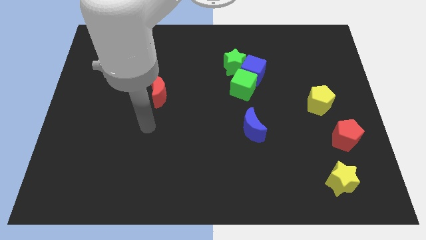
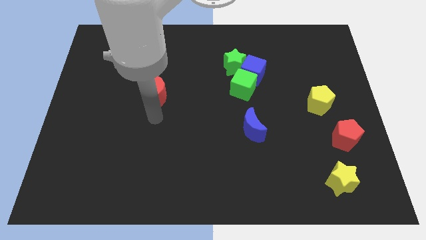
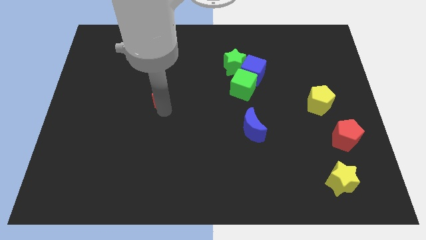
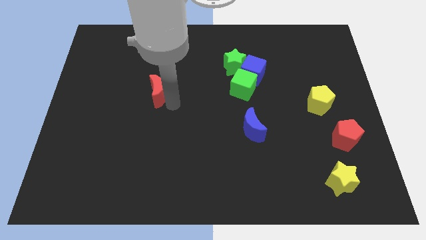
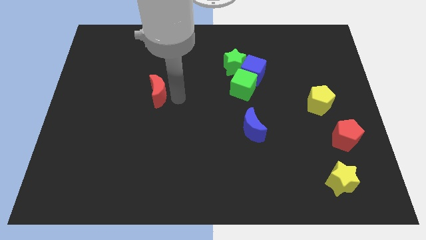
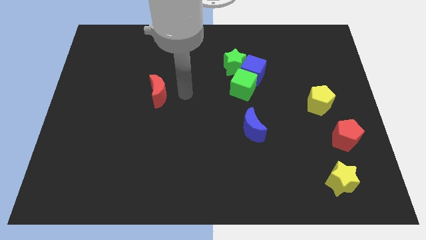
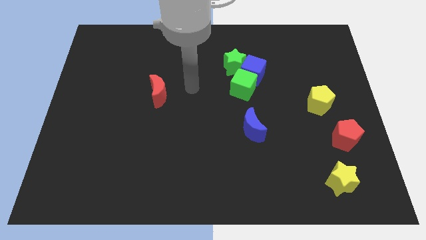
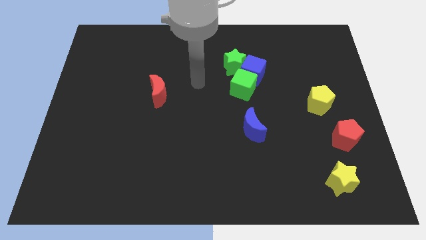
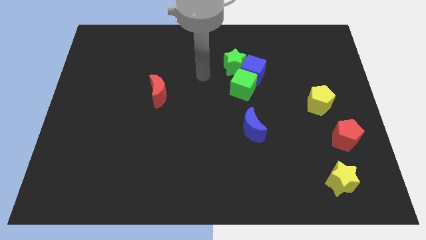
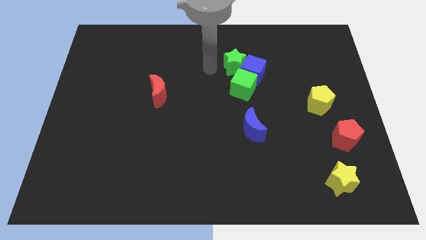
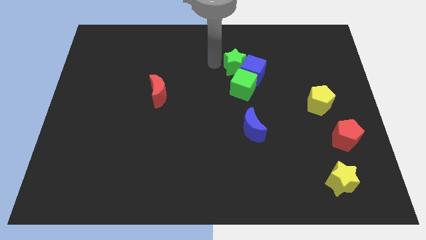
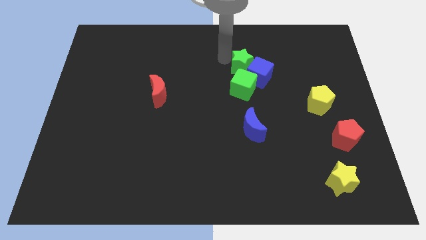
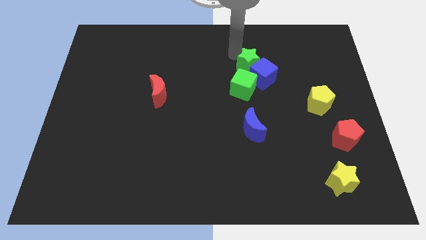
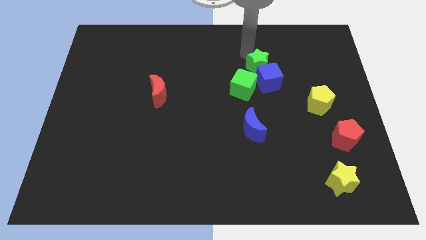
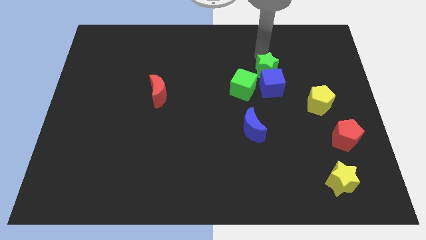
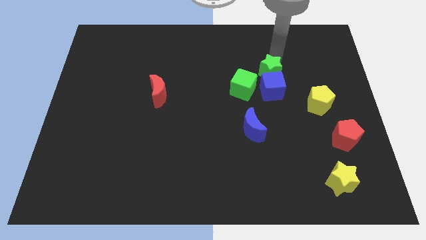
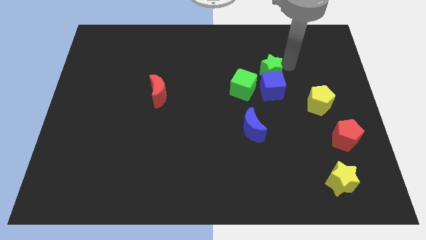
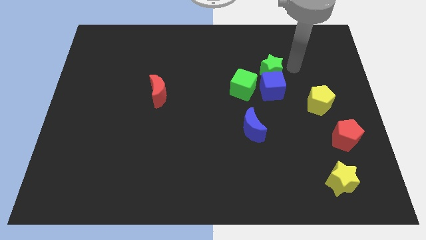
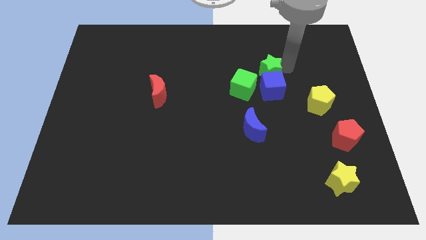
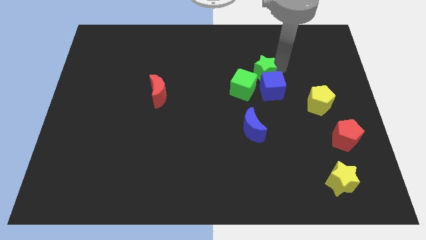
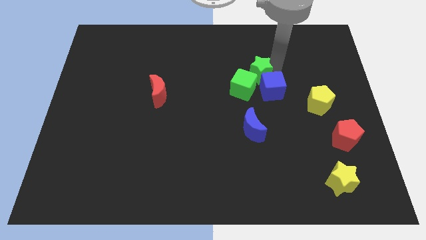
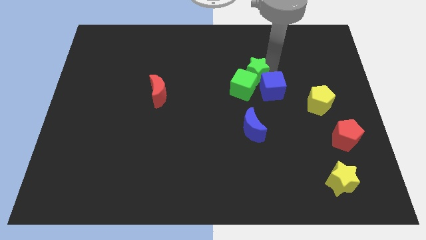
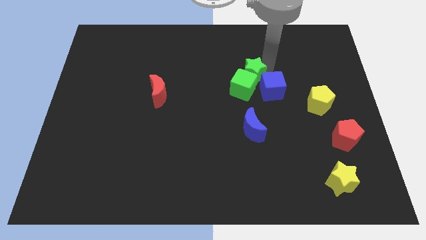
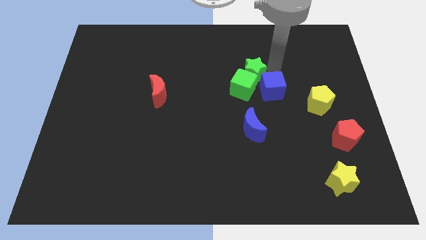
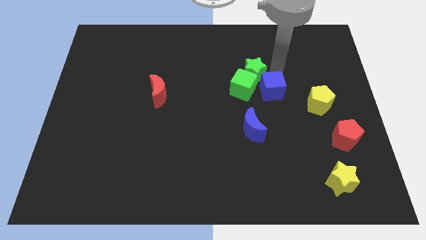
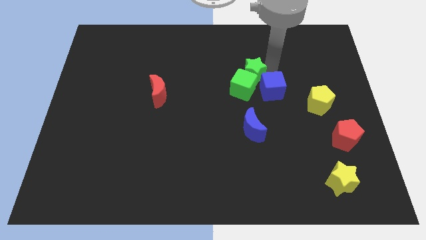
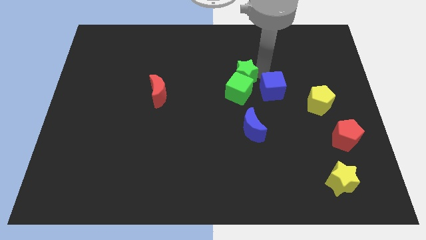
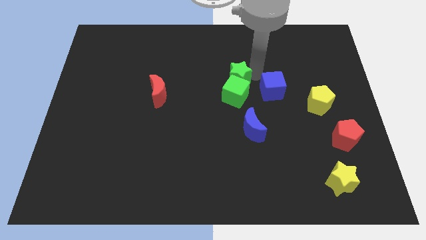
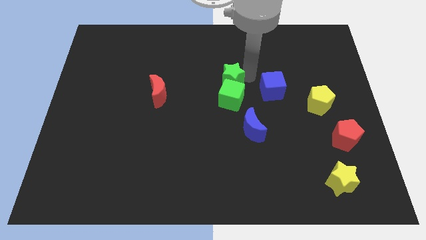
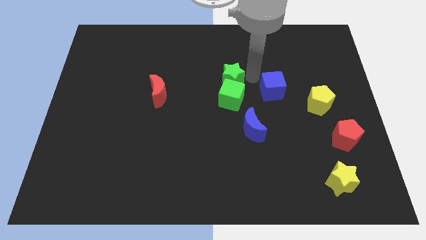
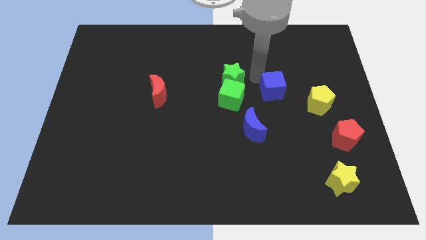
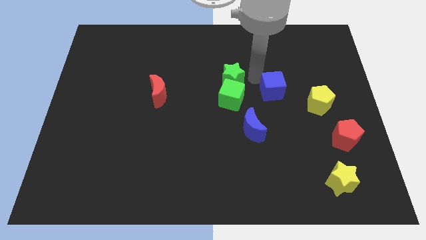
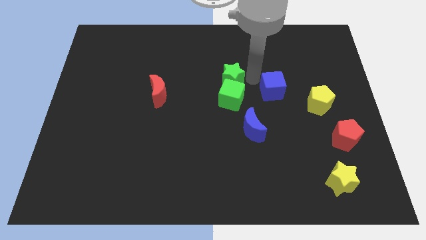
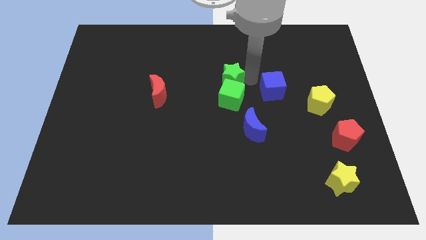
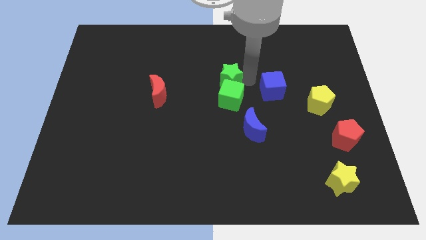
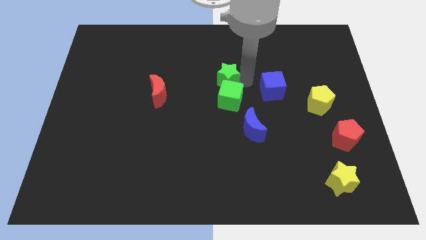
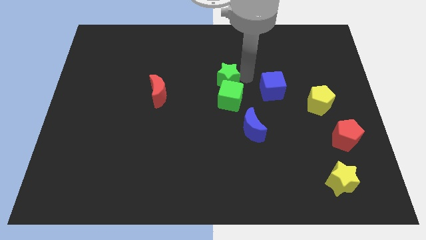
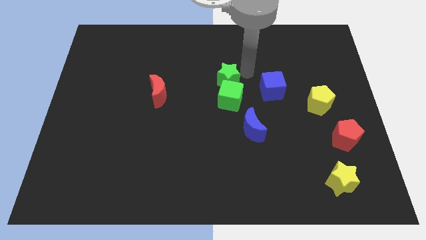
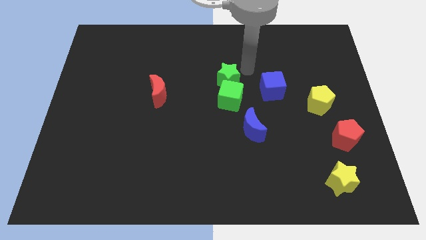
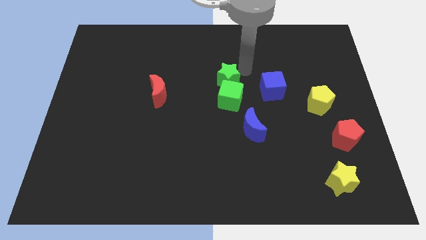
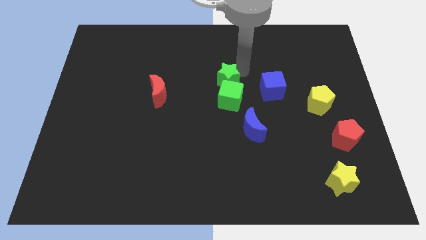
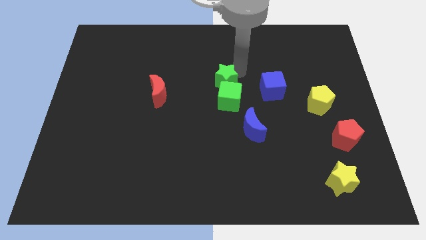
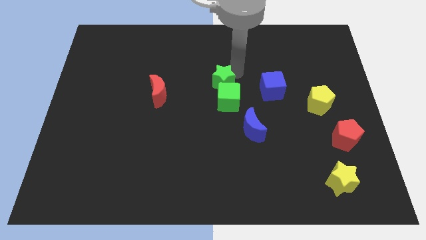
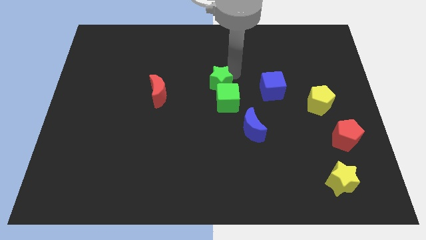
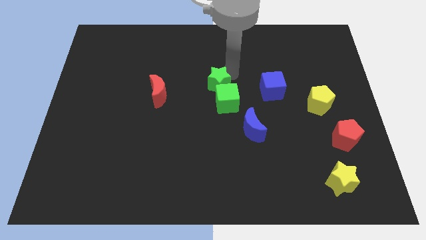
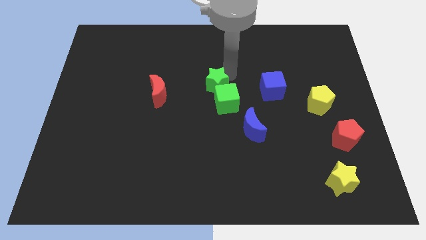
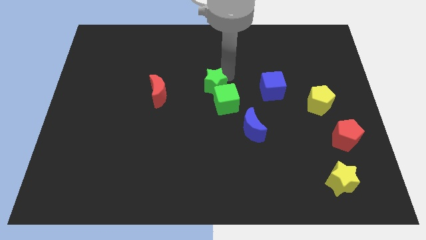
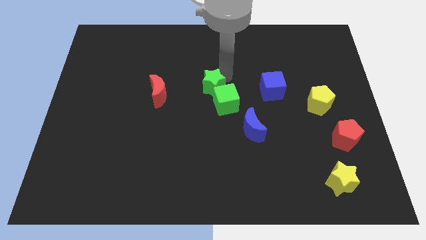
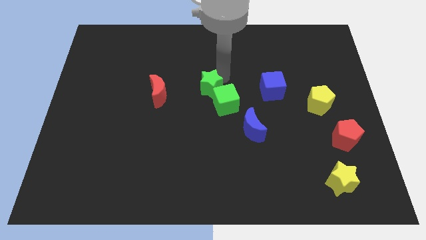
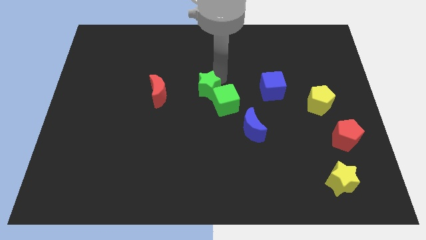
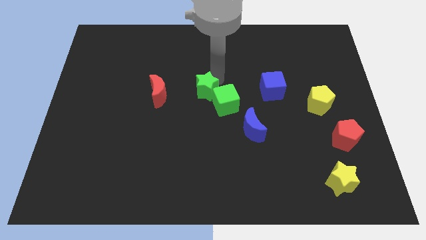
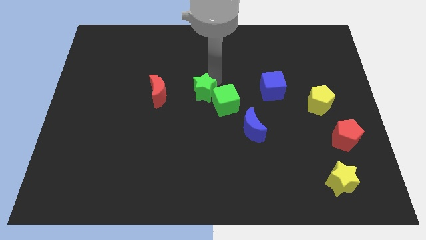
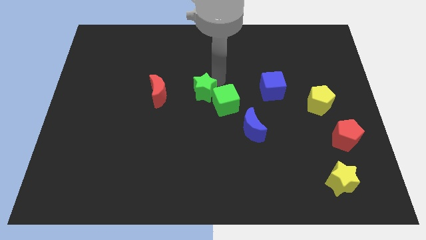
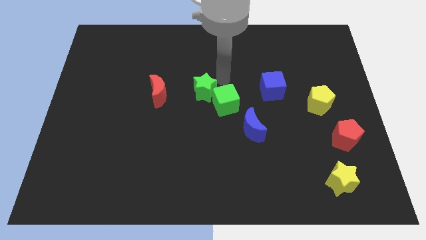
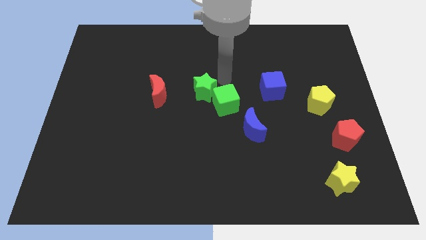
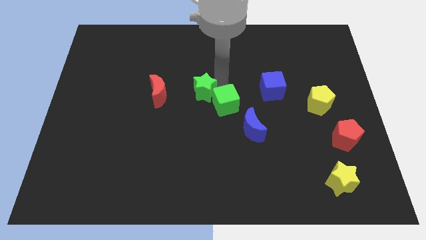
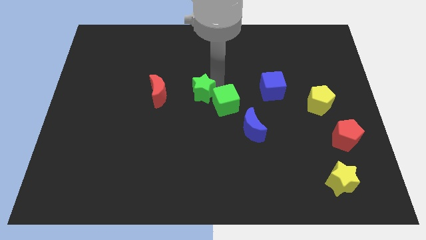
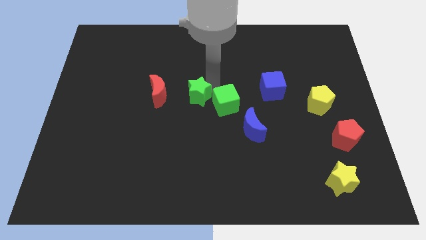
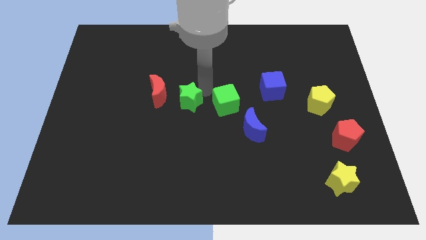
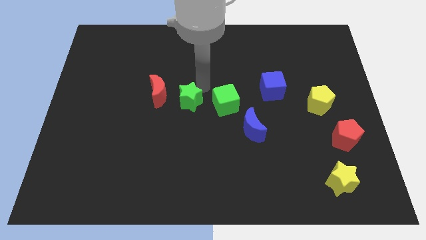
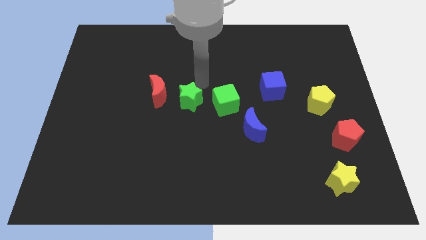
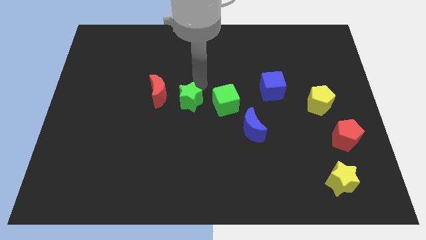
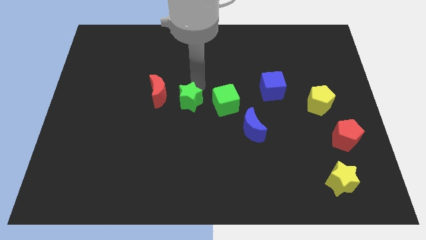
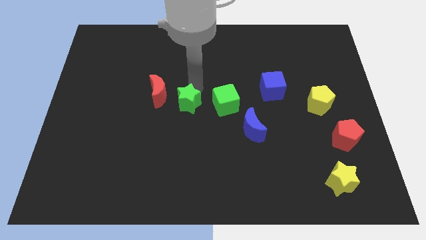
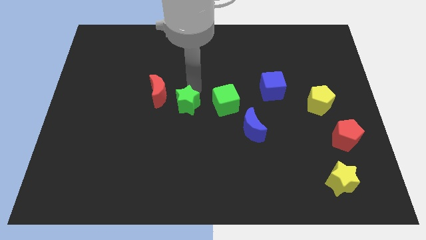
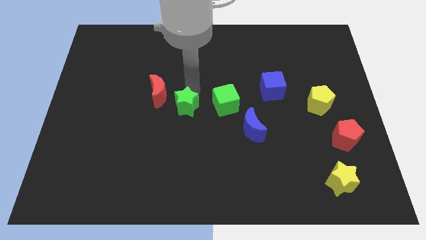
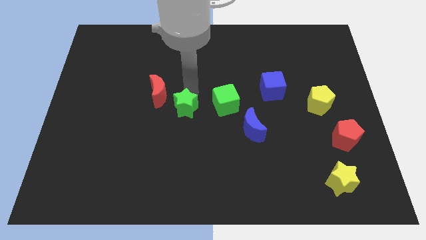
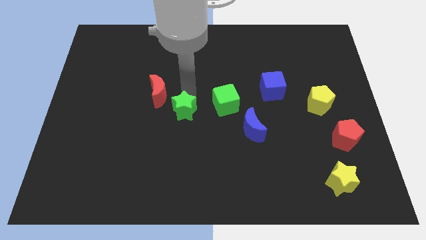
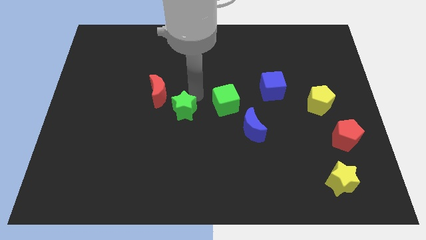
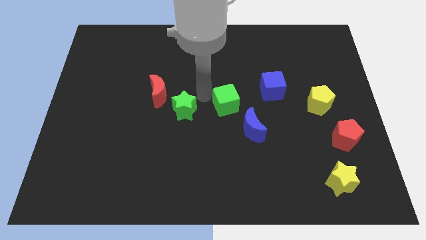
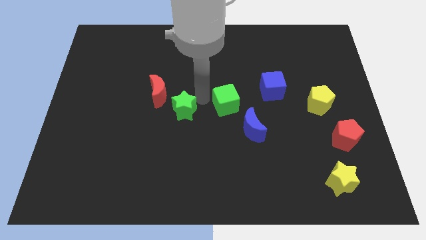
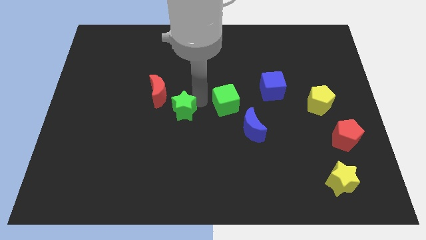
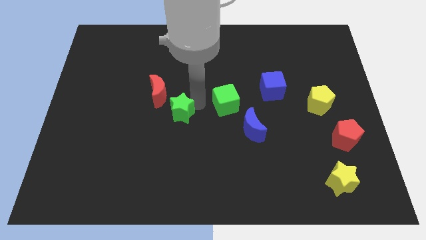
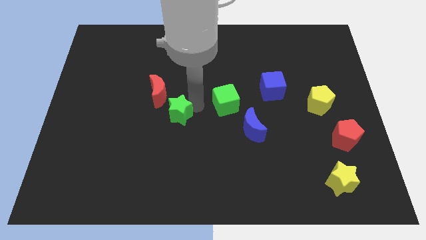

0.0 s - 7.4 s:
slide the green star downwards and then to the left

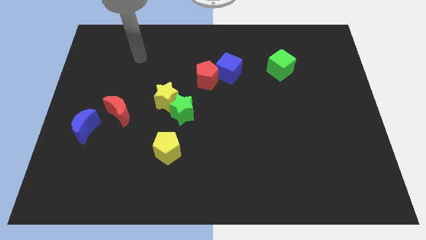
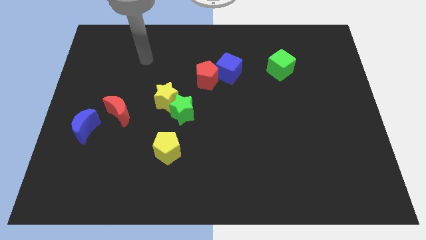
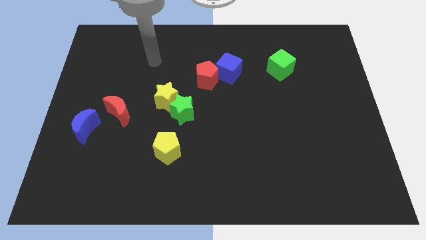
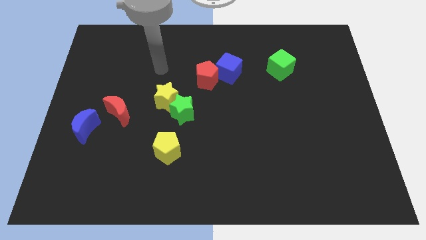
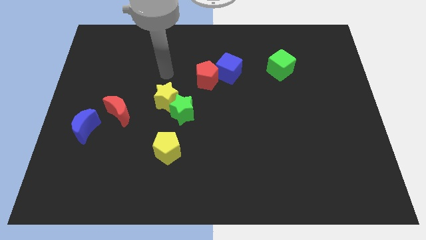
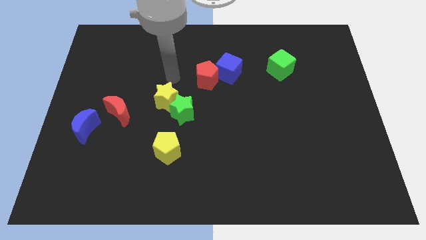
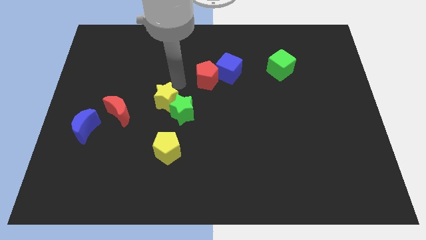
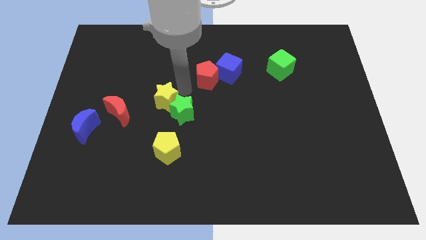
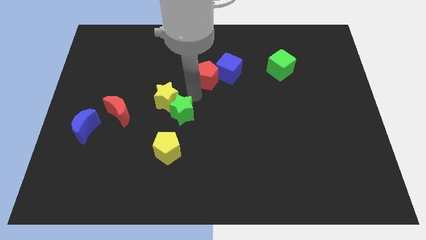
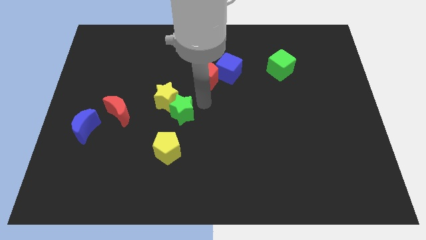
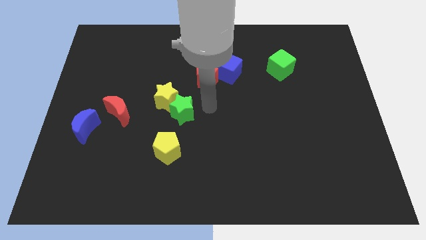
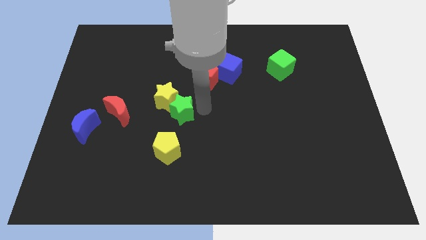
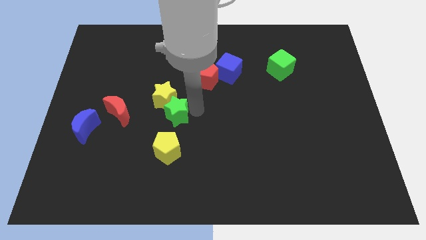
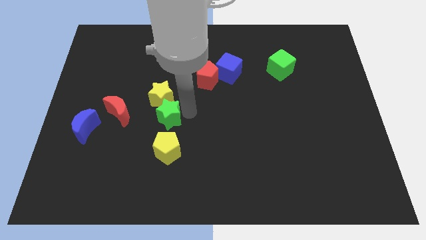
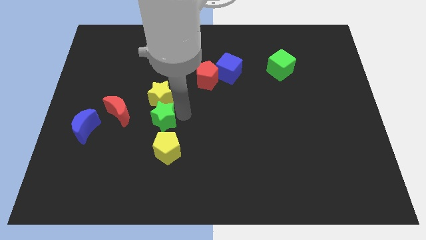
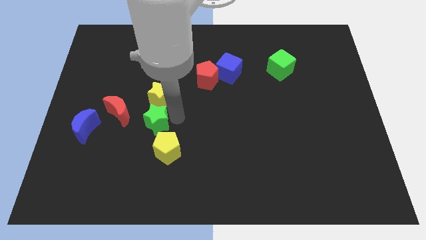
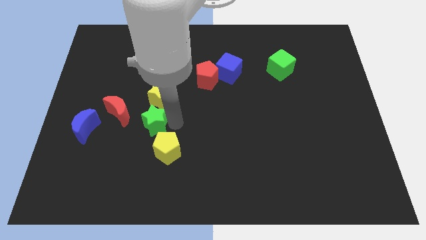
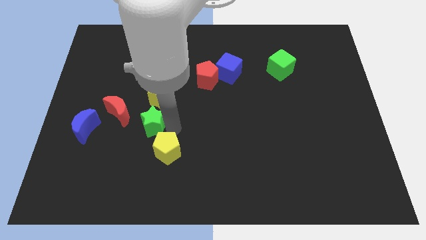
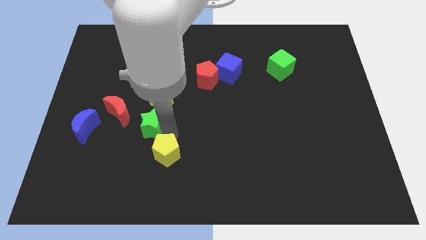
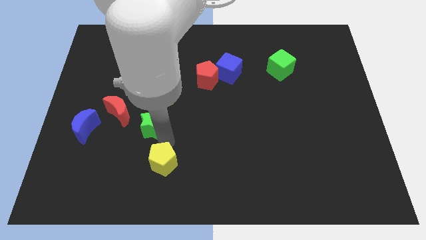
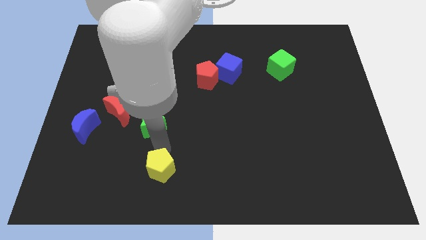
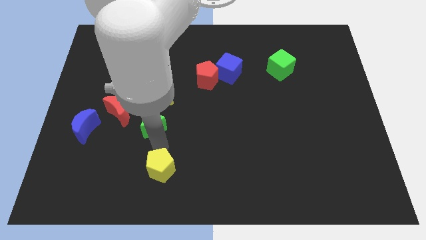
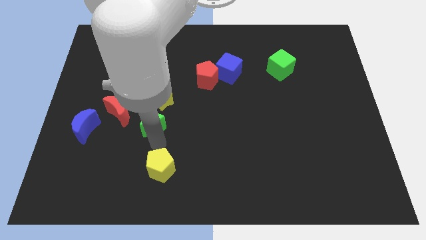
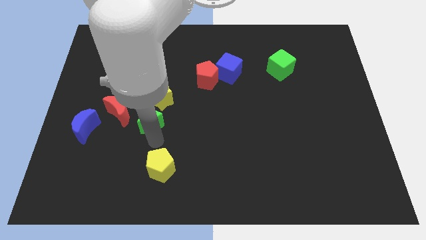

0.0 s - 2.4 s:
slide the green star slightly to the left
